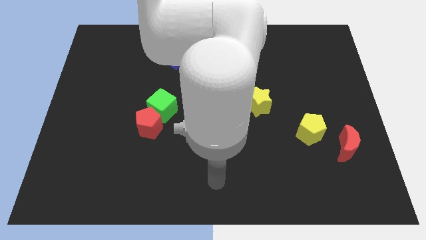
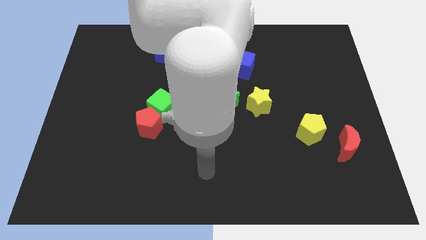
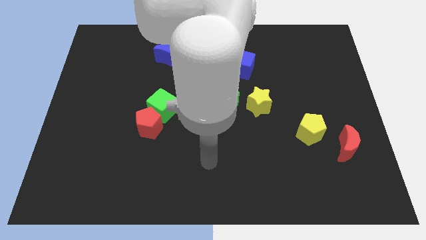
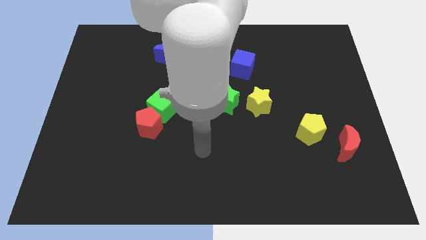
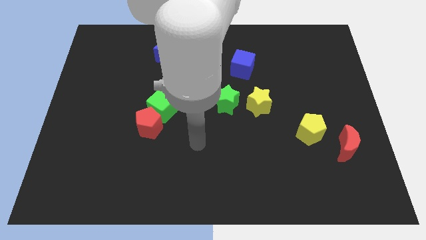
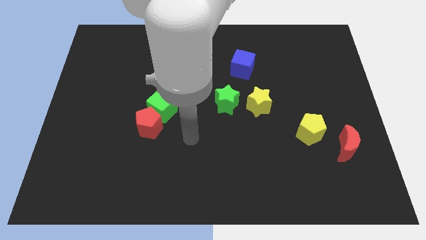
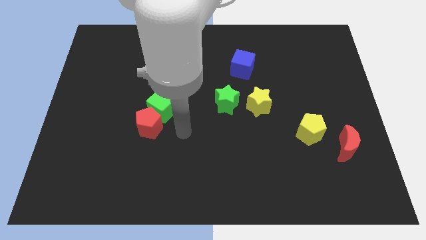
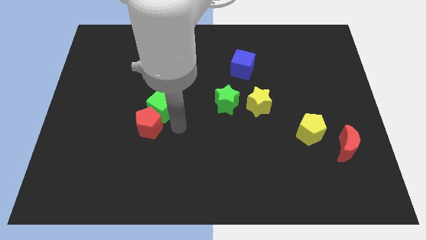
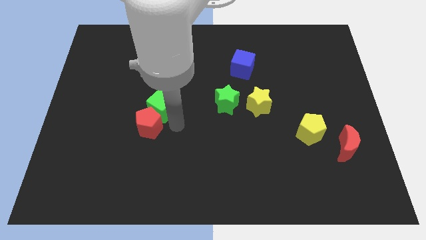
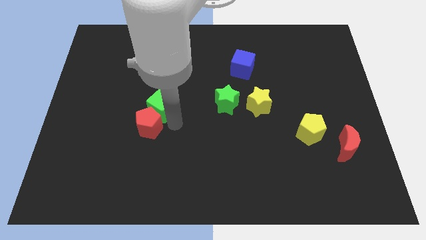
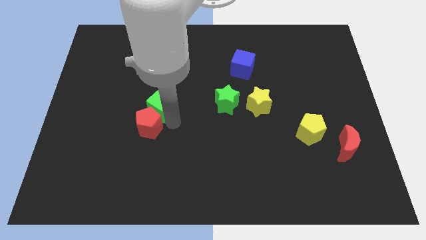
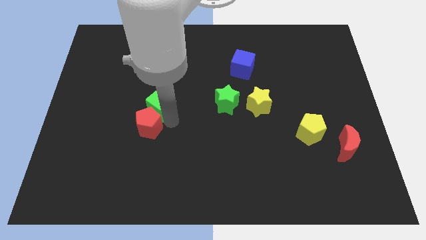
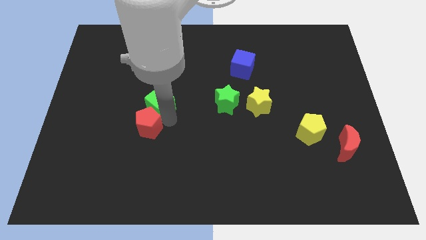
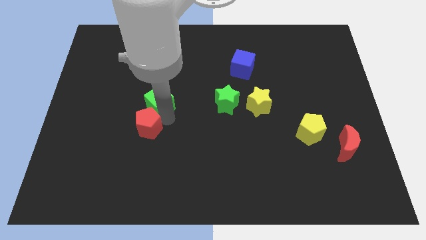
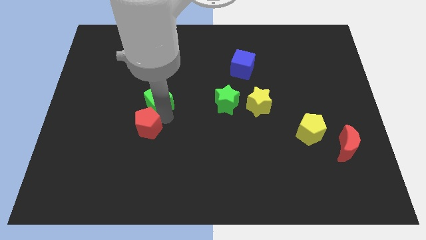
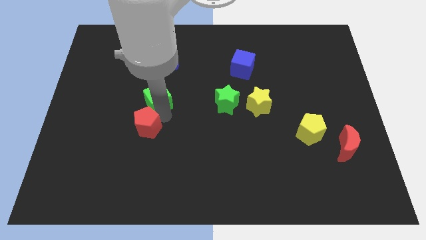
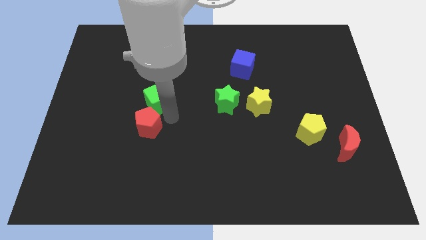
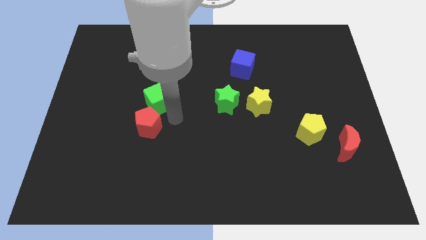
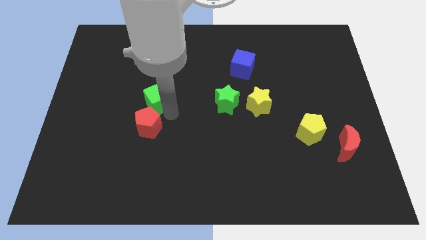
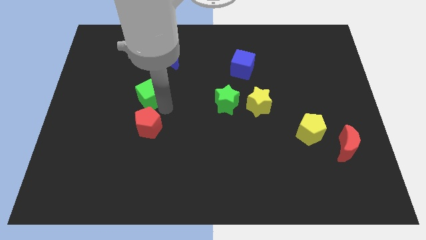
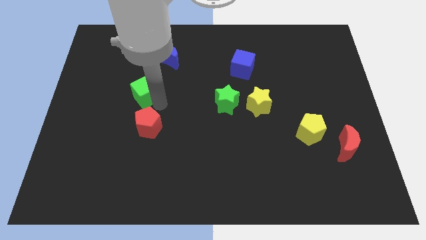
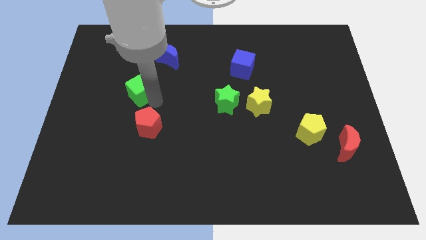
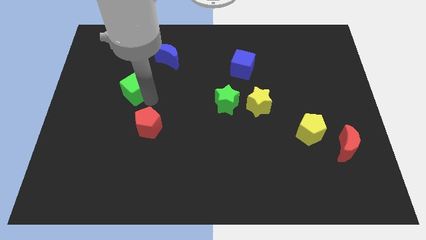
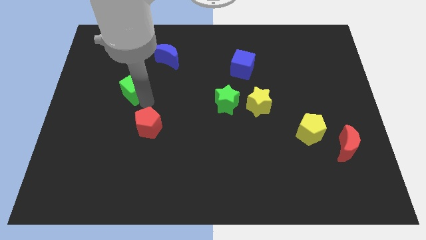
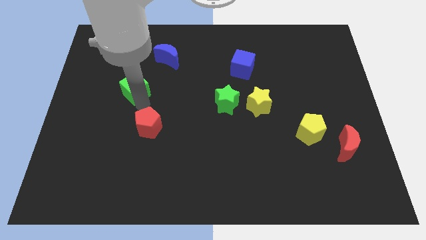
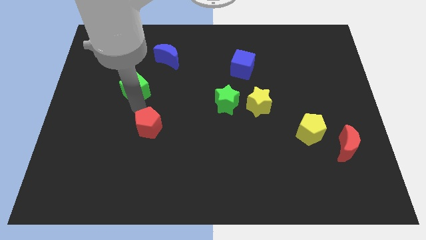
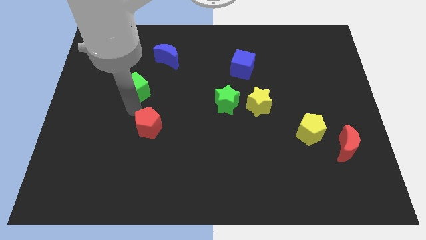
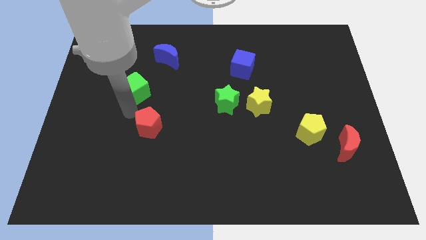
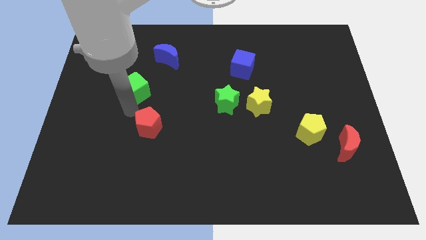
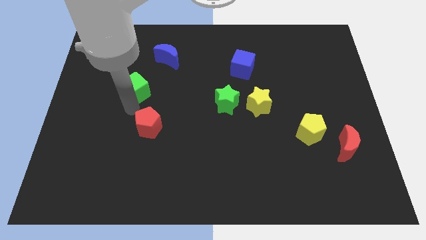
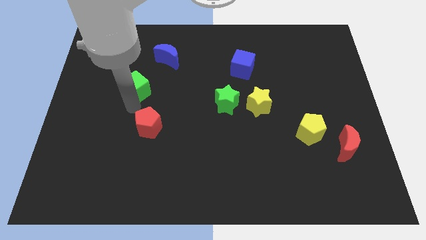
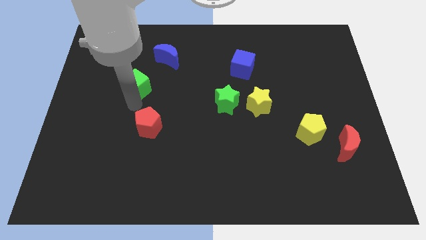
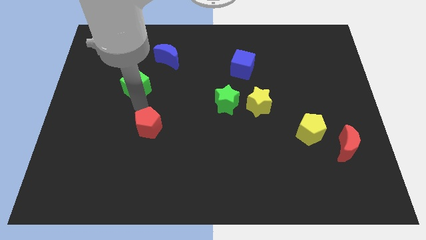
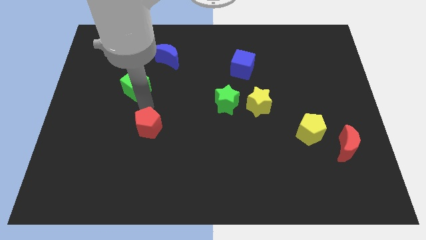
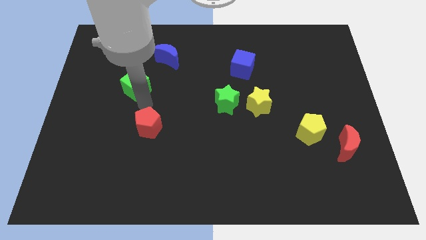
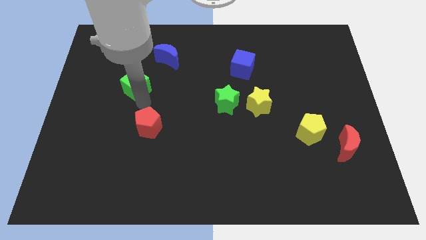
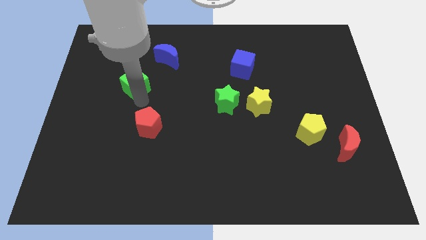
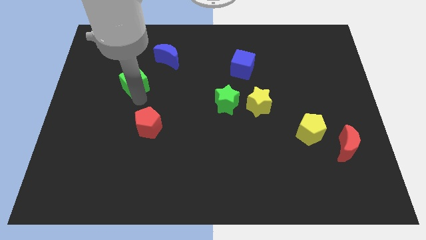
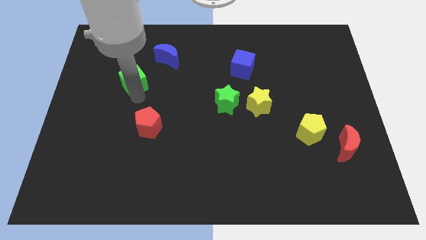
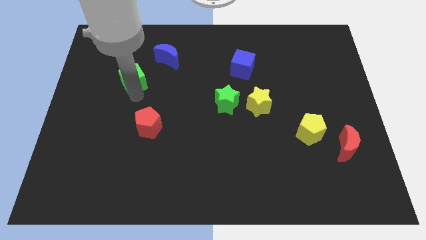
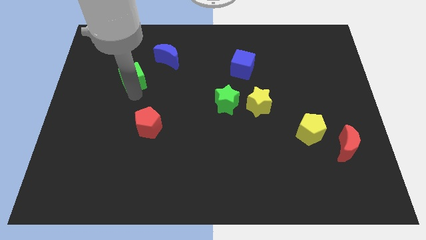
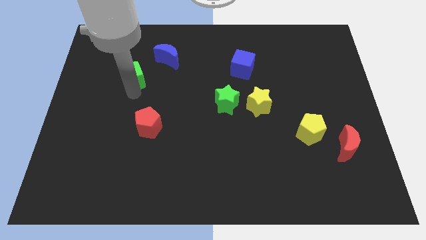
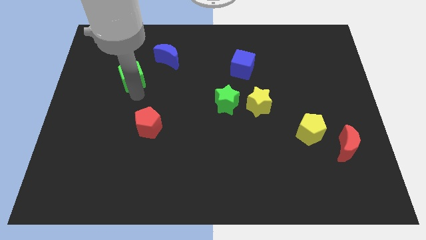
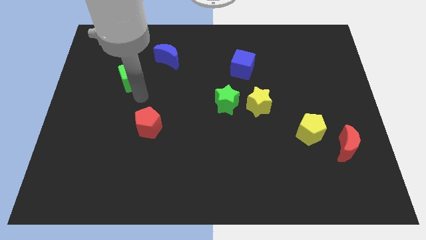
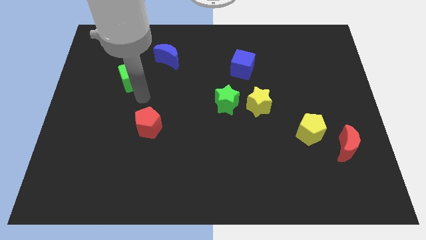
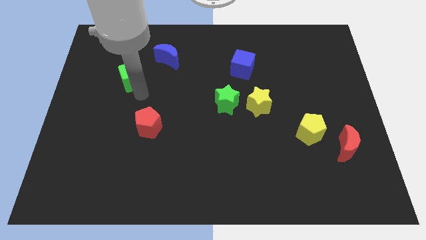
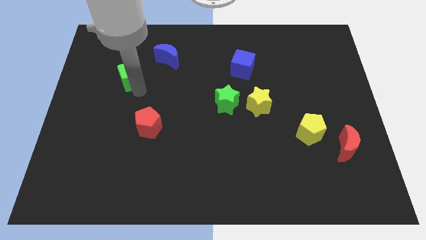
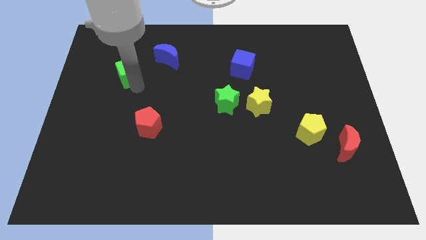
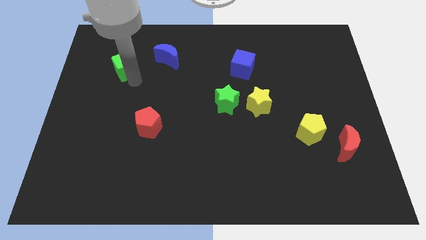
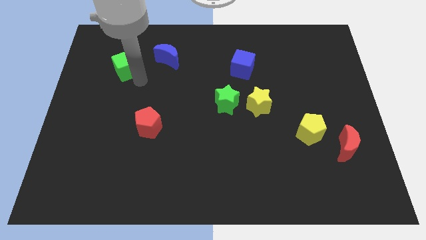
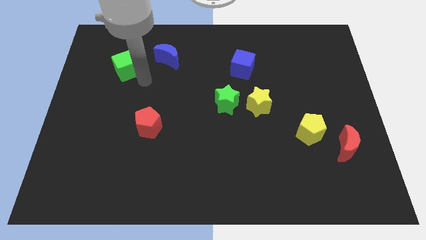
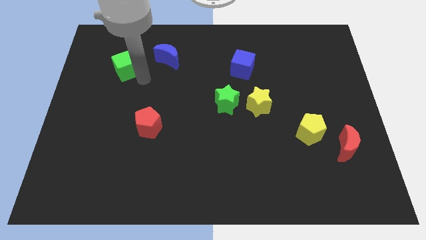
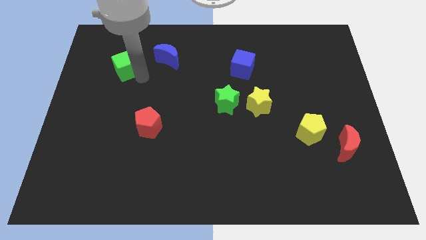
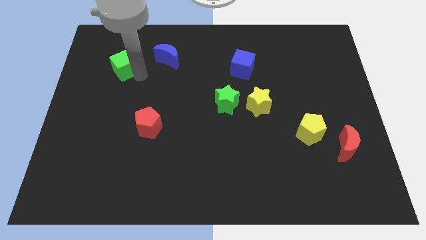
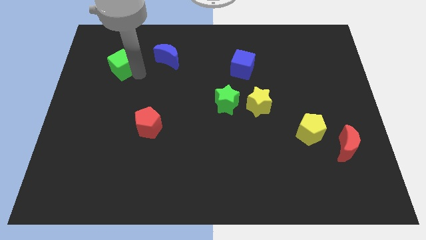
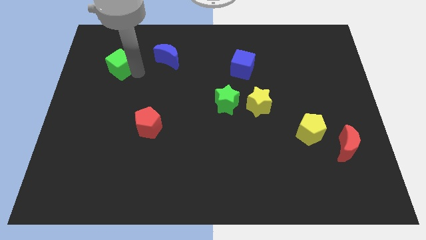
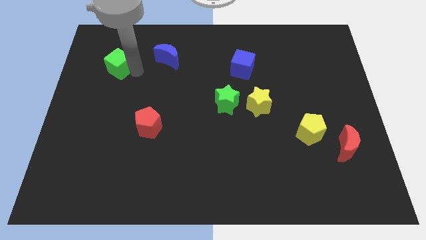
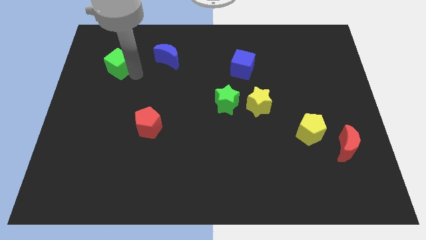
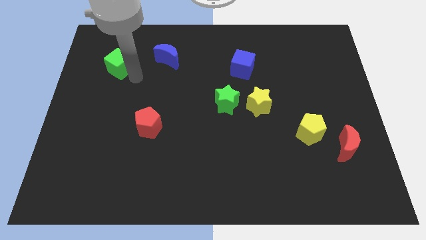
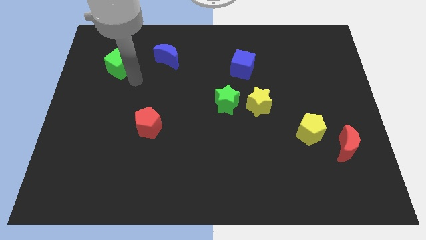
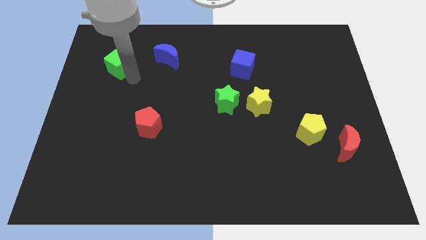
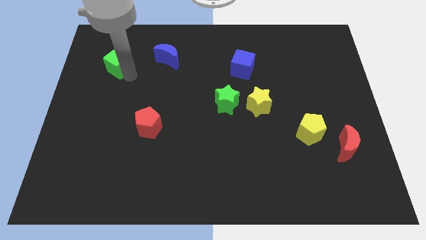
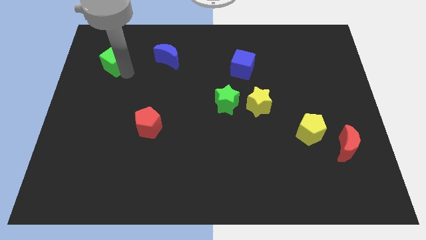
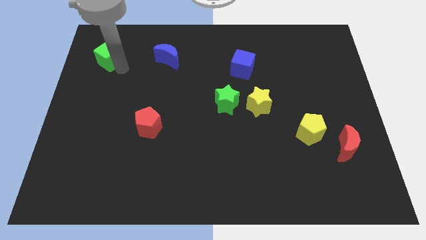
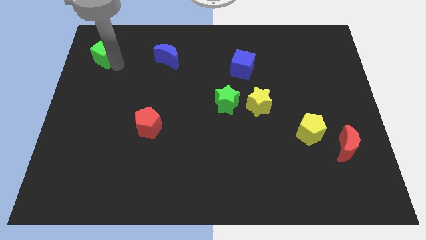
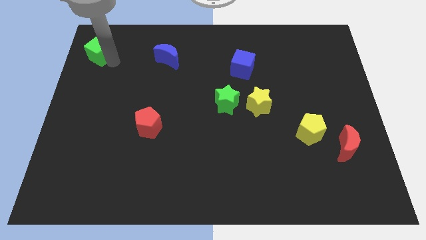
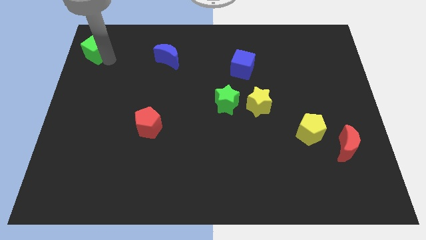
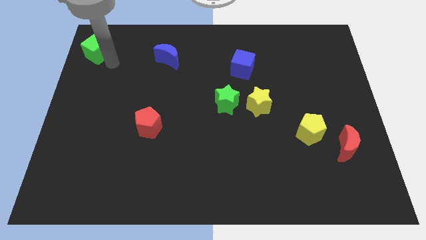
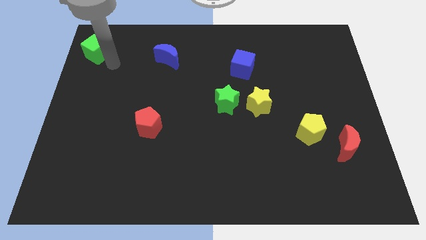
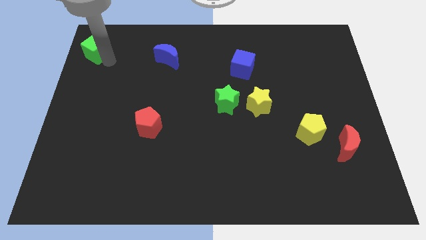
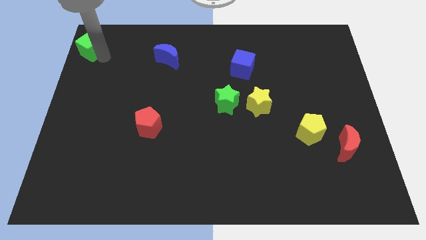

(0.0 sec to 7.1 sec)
move the green cube to the upper left corner
